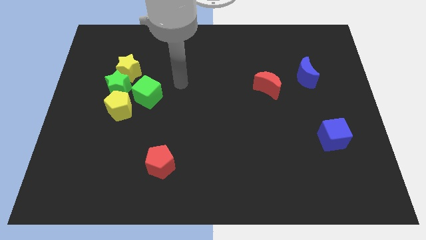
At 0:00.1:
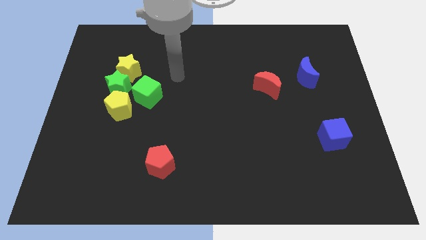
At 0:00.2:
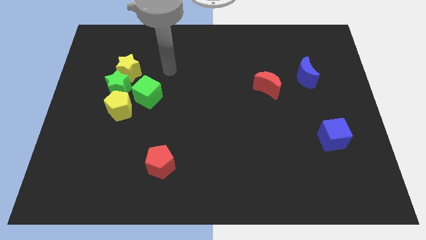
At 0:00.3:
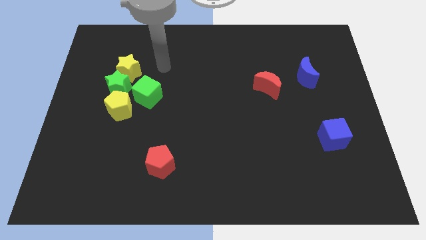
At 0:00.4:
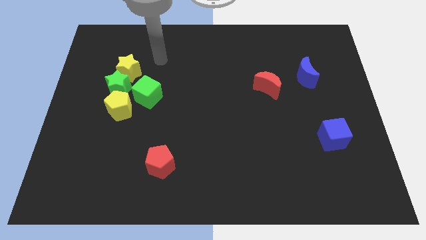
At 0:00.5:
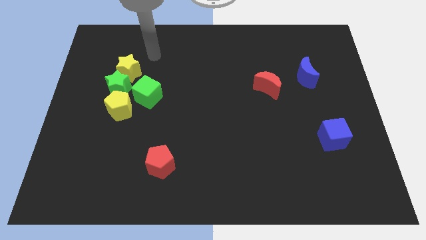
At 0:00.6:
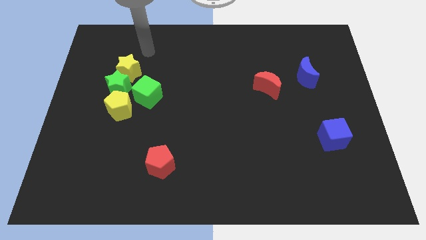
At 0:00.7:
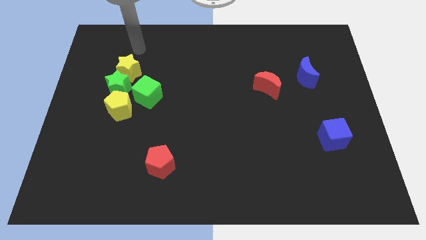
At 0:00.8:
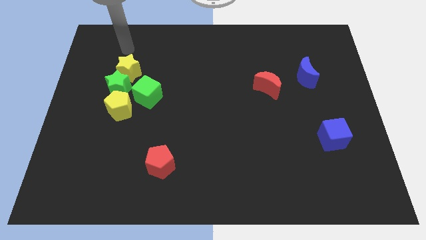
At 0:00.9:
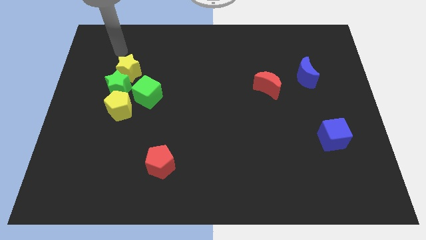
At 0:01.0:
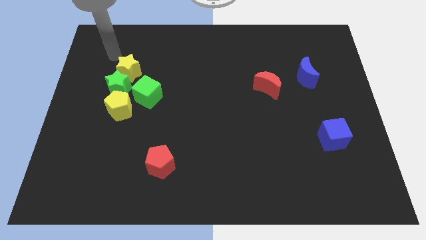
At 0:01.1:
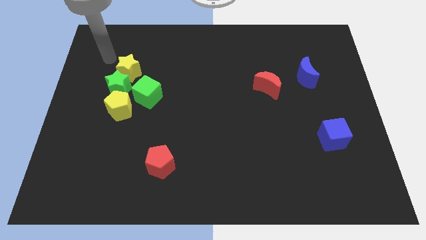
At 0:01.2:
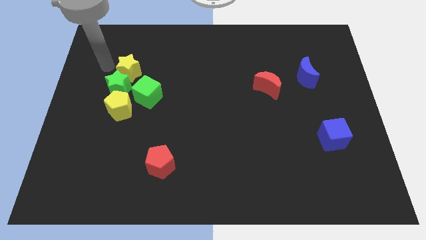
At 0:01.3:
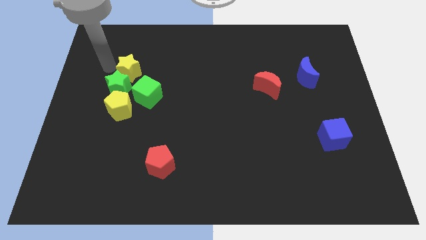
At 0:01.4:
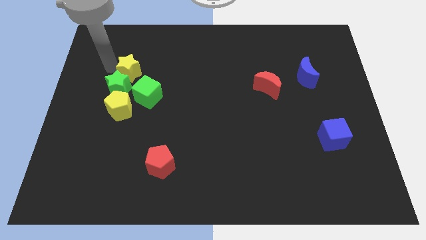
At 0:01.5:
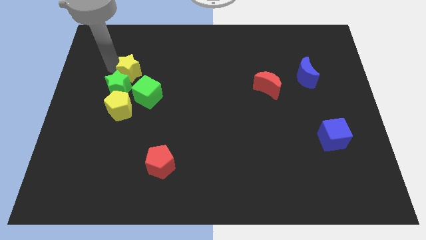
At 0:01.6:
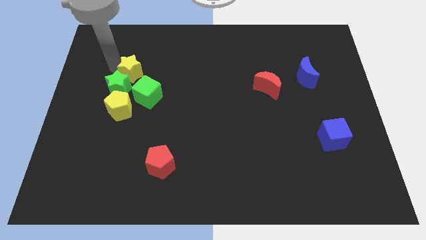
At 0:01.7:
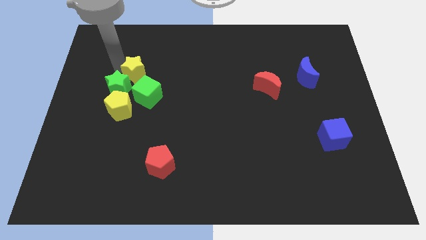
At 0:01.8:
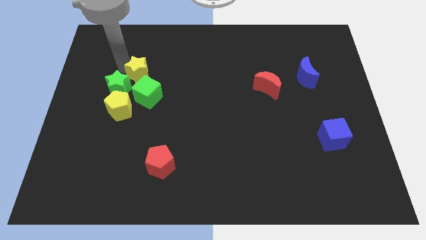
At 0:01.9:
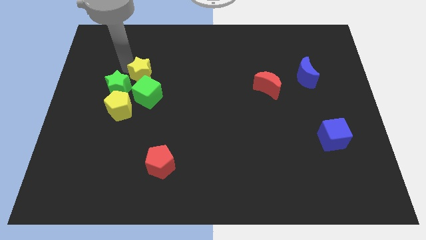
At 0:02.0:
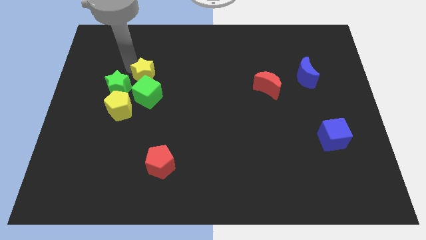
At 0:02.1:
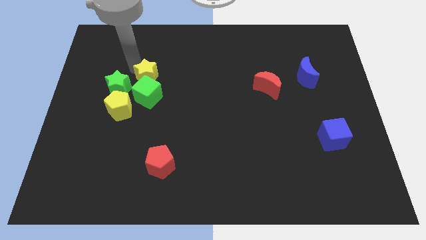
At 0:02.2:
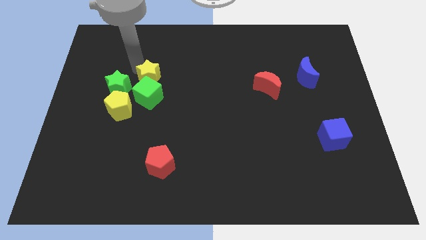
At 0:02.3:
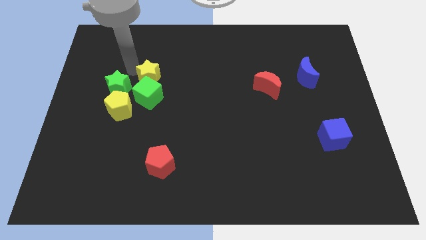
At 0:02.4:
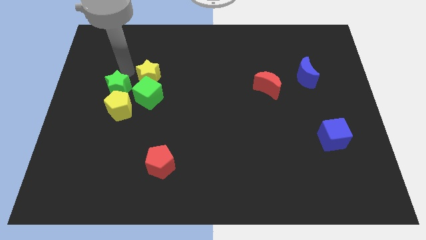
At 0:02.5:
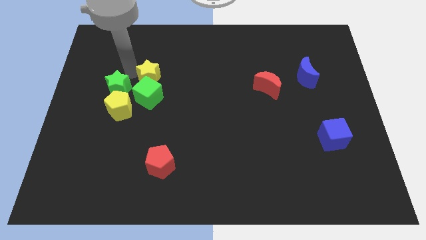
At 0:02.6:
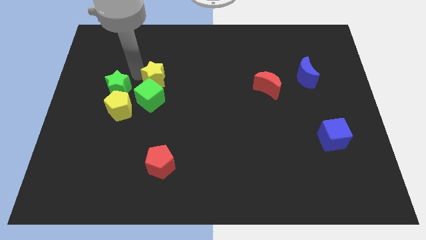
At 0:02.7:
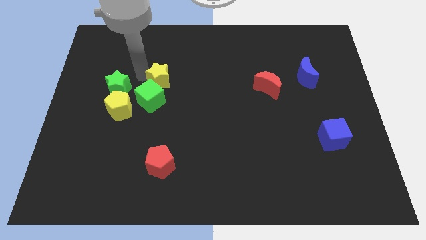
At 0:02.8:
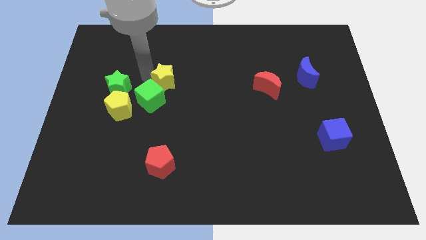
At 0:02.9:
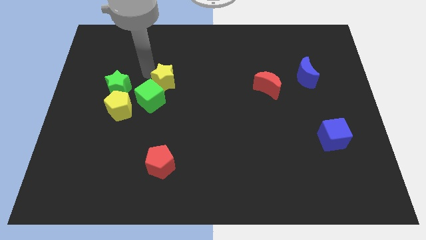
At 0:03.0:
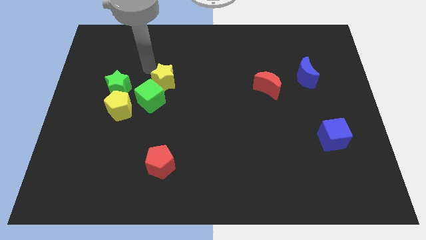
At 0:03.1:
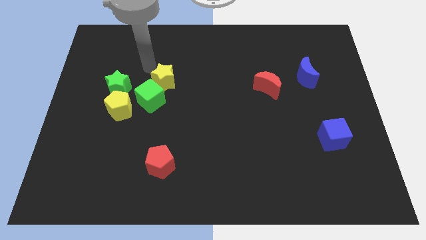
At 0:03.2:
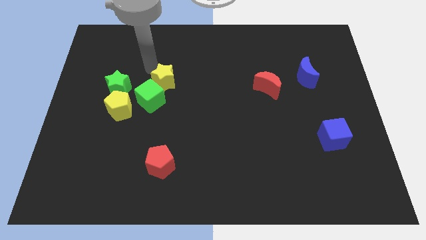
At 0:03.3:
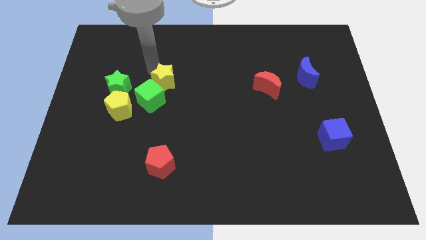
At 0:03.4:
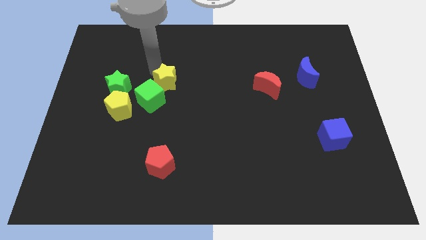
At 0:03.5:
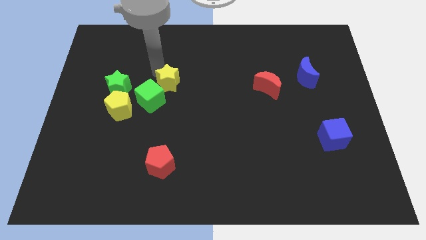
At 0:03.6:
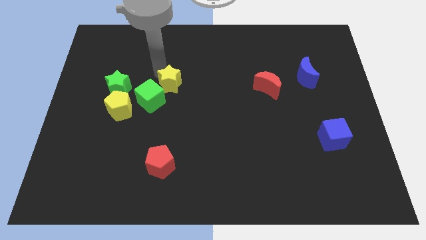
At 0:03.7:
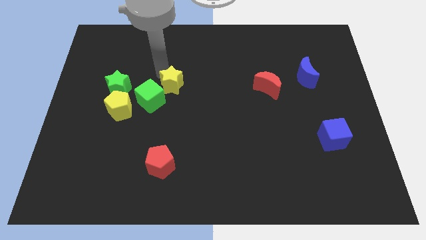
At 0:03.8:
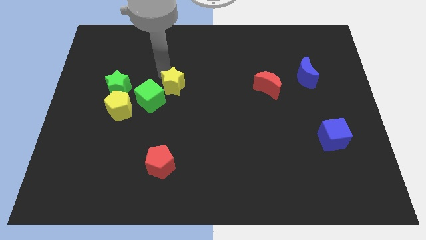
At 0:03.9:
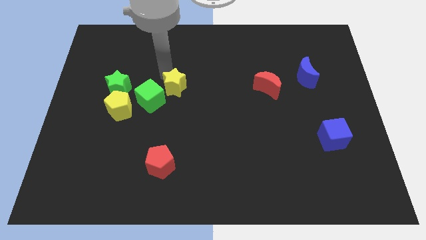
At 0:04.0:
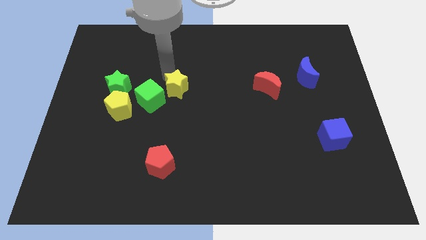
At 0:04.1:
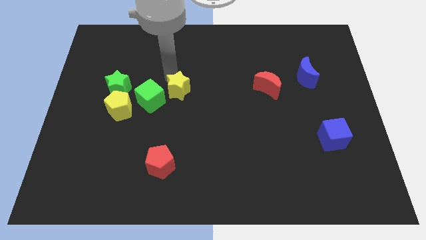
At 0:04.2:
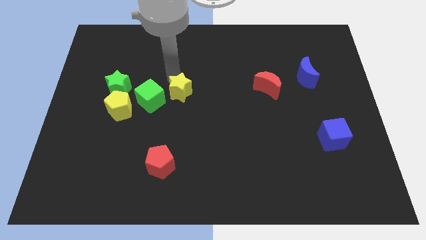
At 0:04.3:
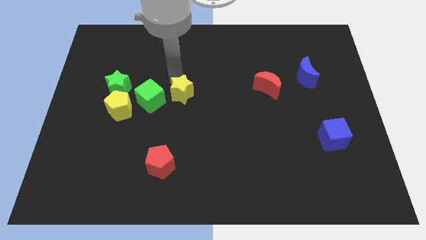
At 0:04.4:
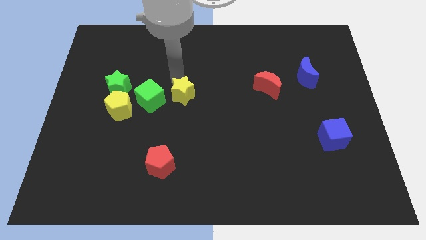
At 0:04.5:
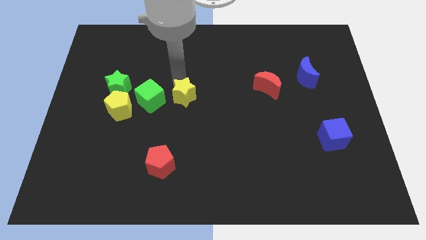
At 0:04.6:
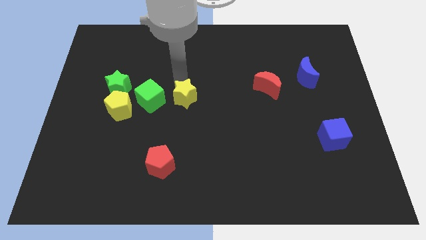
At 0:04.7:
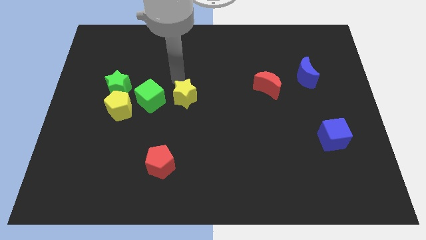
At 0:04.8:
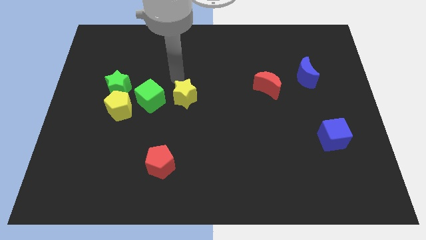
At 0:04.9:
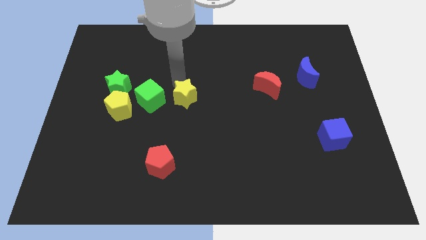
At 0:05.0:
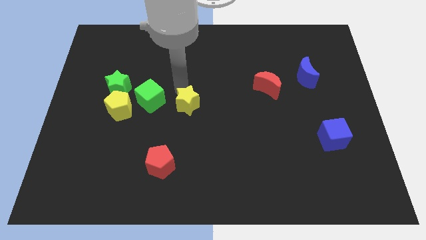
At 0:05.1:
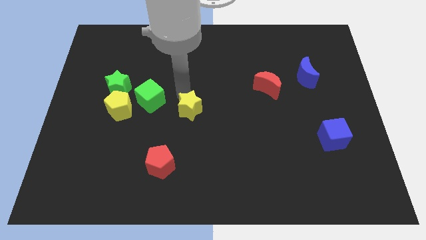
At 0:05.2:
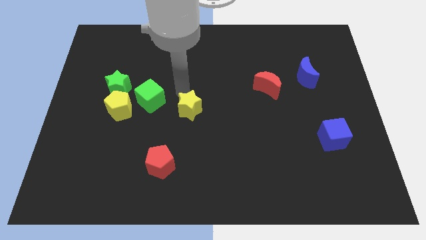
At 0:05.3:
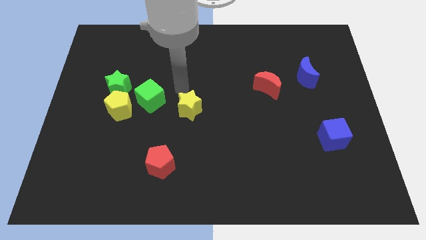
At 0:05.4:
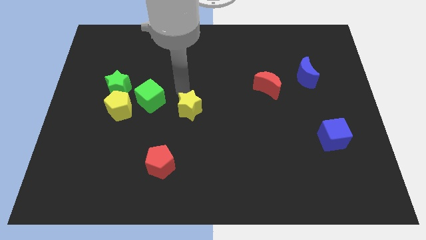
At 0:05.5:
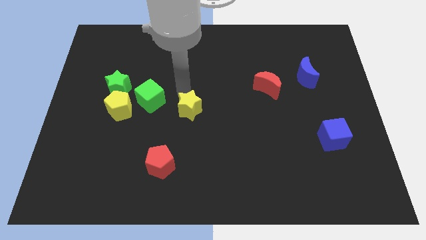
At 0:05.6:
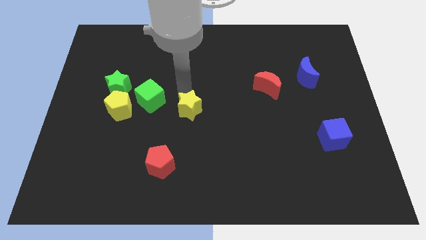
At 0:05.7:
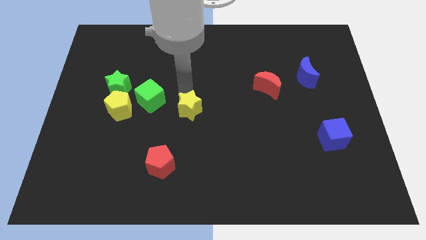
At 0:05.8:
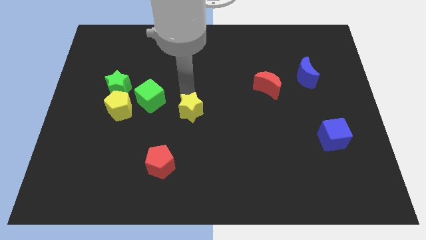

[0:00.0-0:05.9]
push the yellow star diagonally down and right

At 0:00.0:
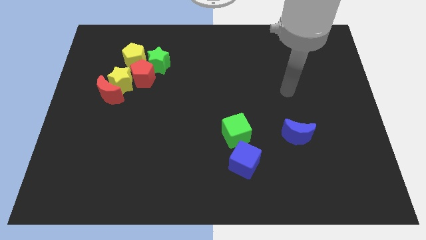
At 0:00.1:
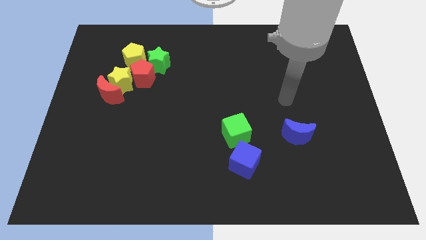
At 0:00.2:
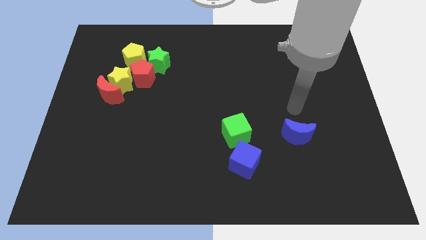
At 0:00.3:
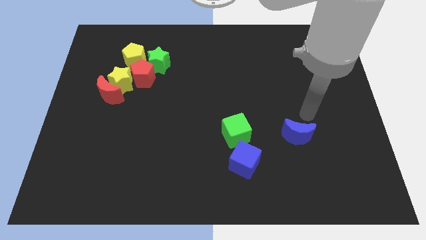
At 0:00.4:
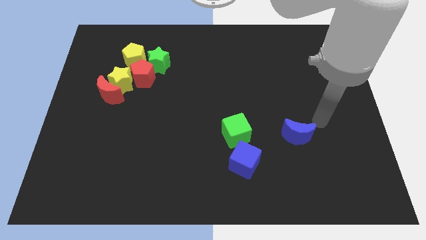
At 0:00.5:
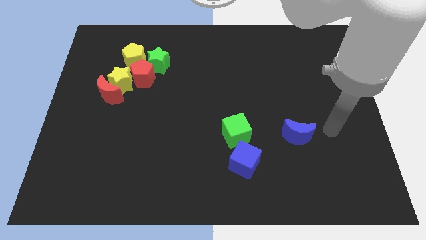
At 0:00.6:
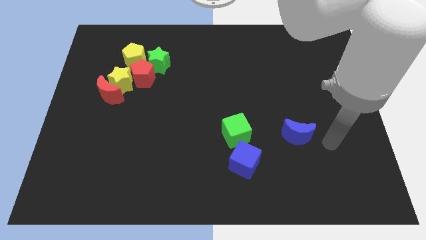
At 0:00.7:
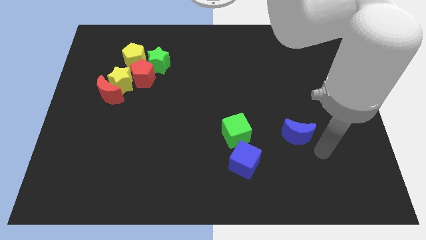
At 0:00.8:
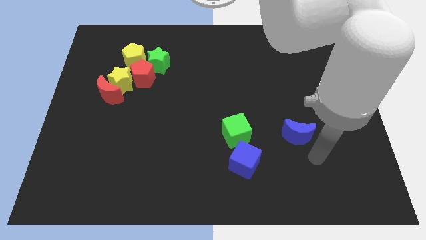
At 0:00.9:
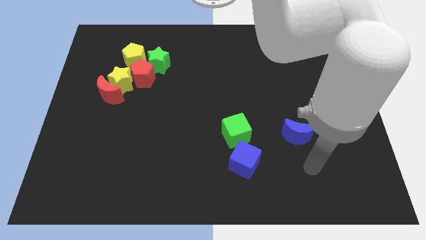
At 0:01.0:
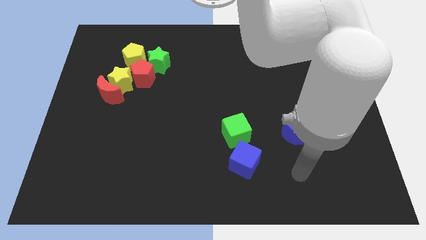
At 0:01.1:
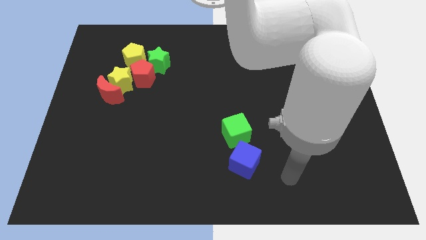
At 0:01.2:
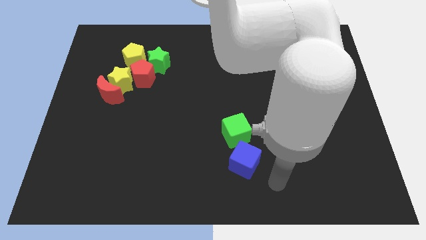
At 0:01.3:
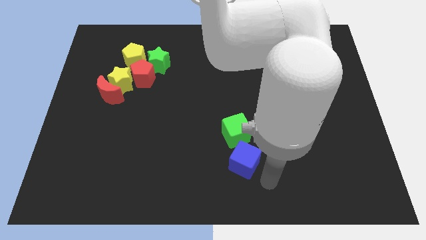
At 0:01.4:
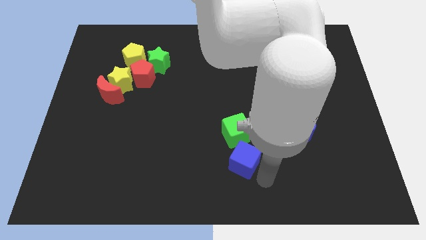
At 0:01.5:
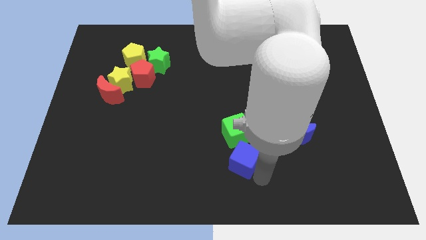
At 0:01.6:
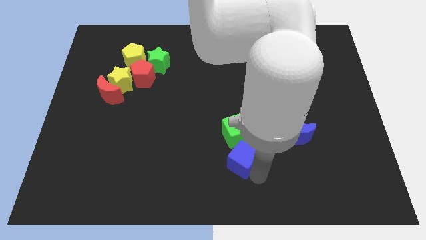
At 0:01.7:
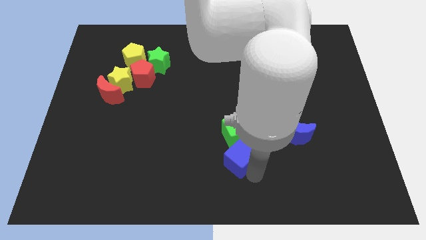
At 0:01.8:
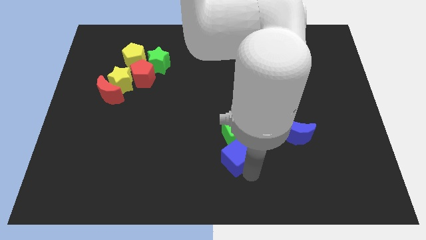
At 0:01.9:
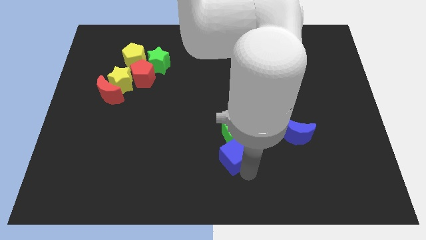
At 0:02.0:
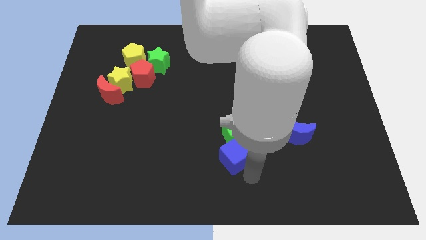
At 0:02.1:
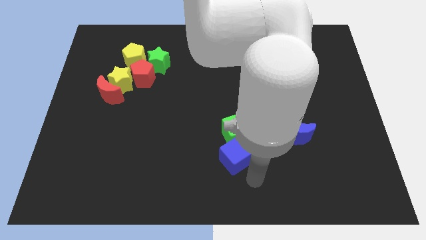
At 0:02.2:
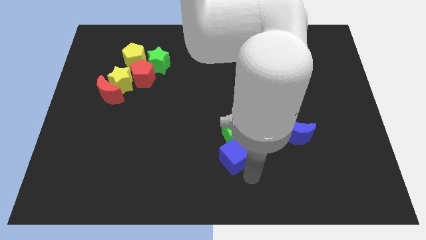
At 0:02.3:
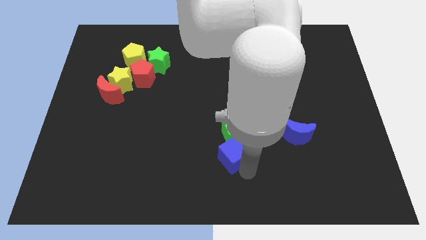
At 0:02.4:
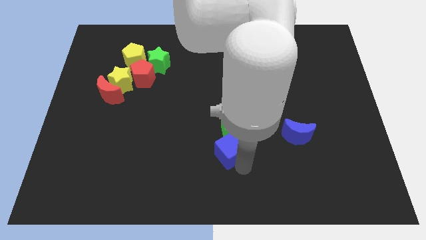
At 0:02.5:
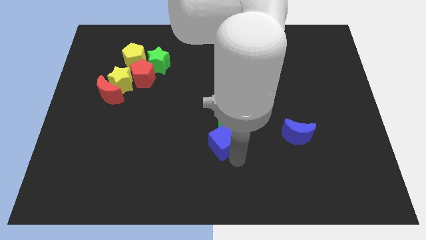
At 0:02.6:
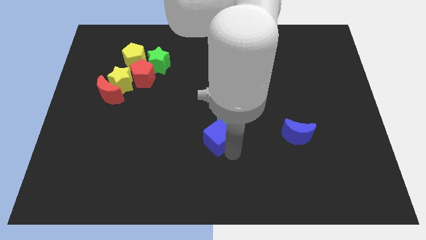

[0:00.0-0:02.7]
push the blue cube up and left somewhat
